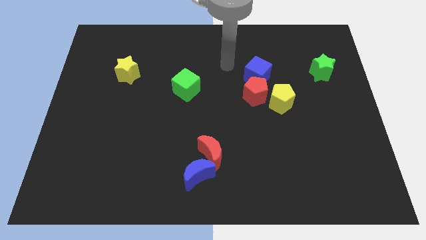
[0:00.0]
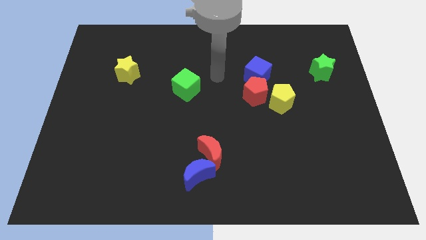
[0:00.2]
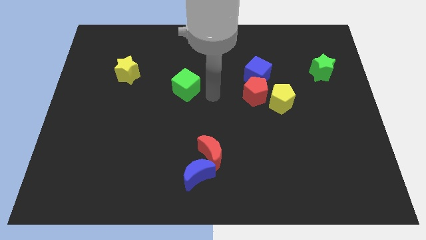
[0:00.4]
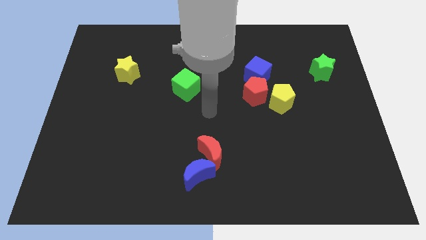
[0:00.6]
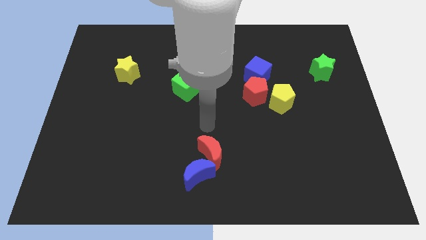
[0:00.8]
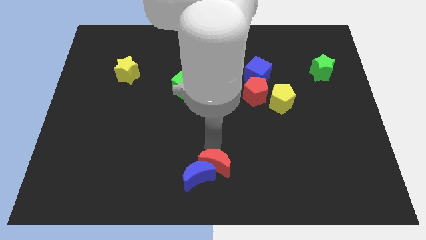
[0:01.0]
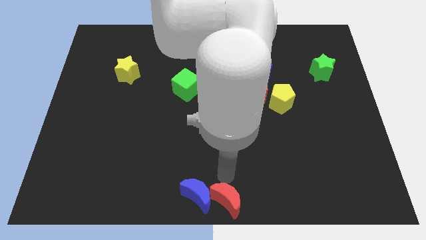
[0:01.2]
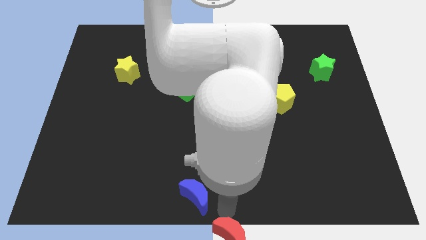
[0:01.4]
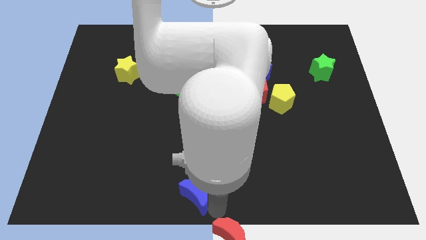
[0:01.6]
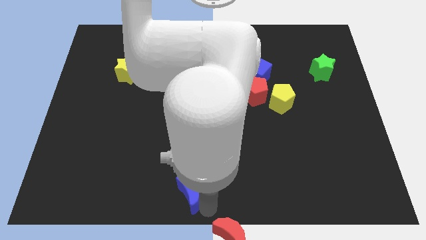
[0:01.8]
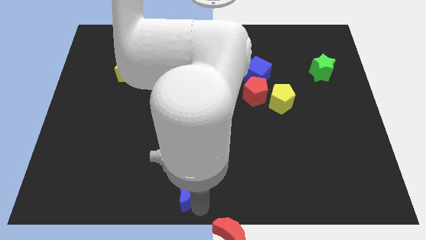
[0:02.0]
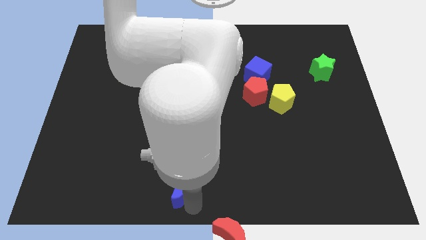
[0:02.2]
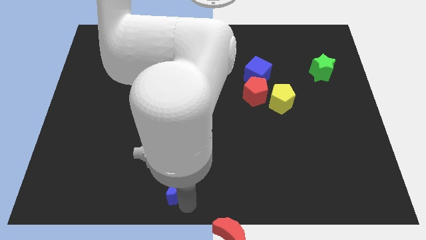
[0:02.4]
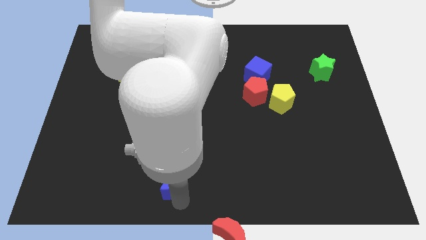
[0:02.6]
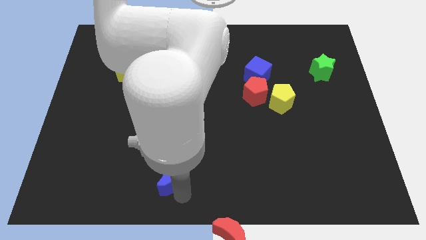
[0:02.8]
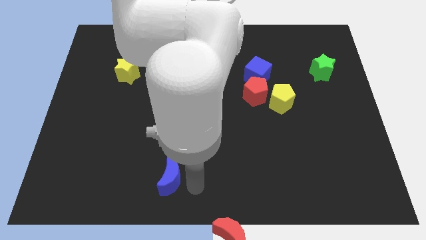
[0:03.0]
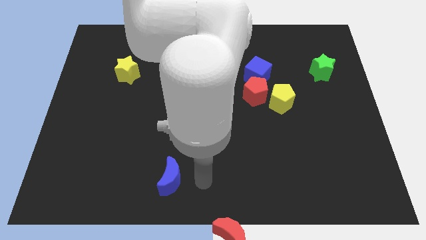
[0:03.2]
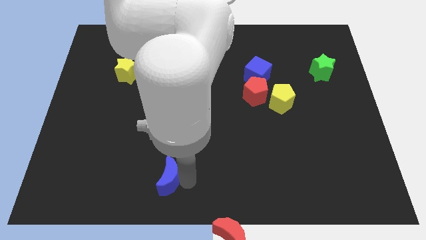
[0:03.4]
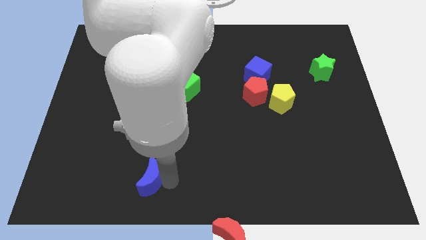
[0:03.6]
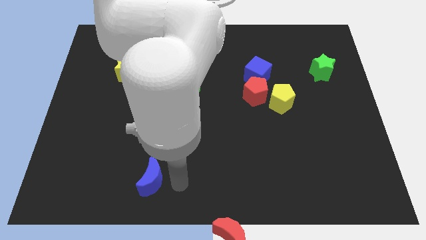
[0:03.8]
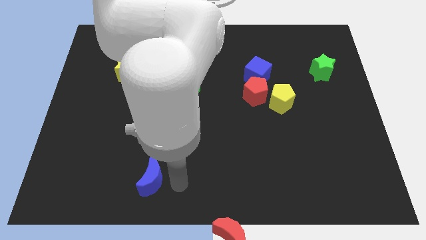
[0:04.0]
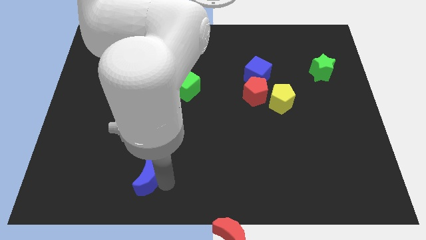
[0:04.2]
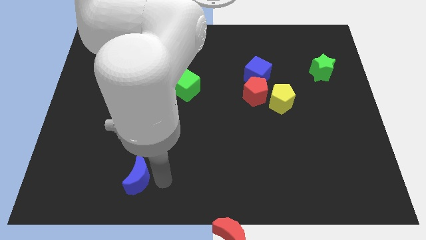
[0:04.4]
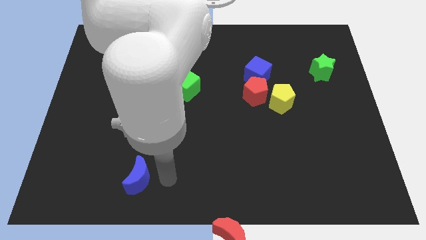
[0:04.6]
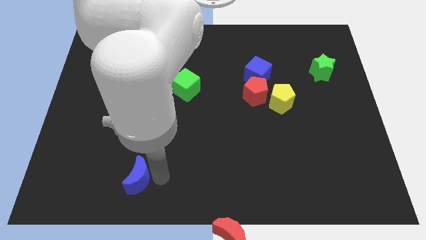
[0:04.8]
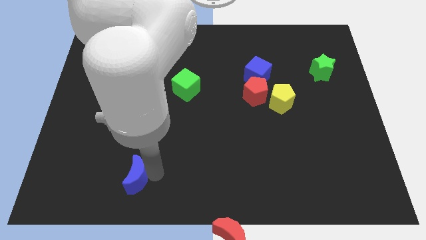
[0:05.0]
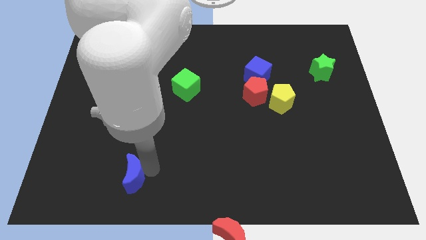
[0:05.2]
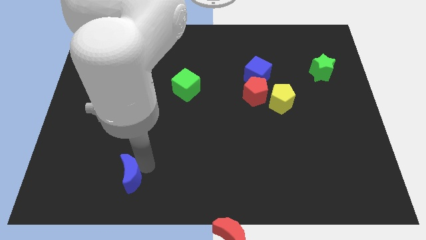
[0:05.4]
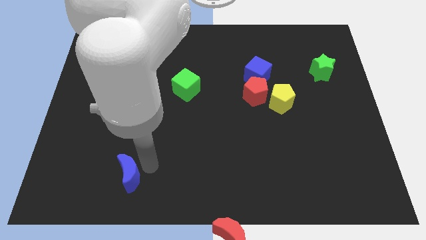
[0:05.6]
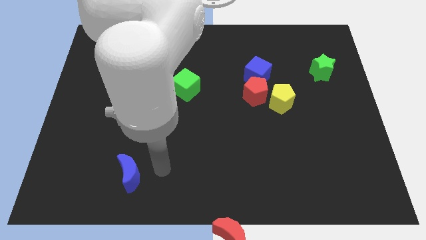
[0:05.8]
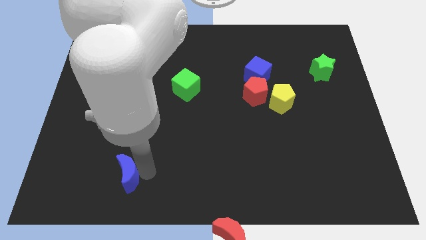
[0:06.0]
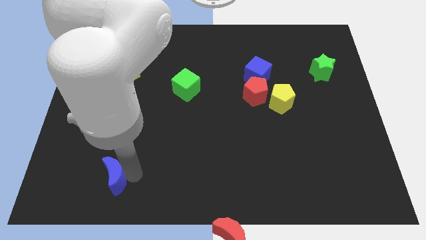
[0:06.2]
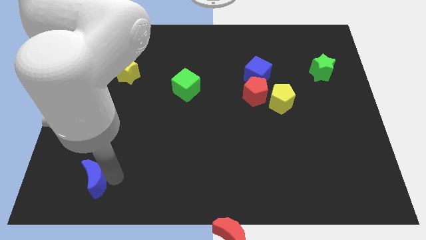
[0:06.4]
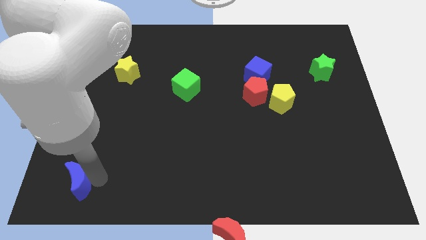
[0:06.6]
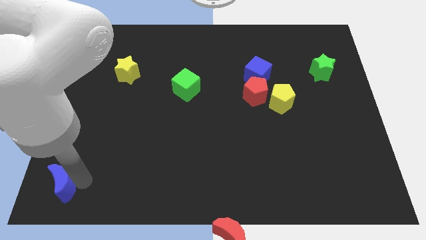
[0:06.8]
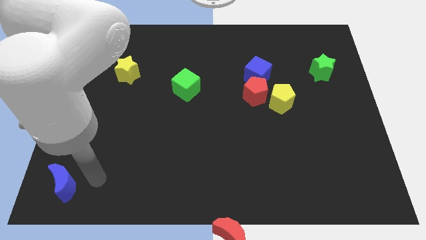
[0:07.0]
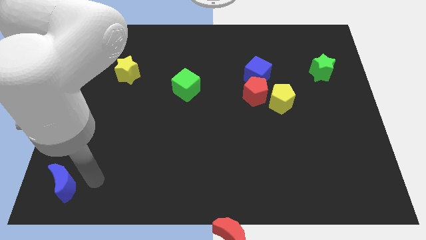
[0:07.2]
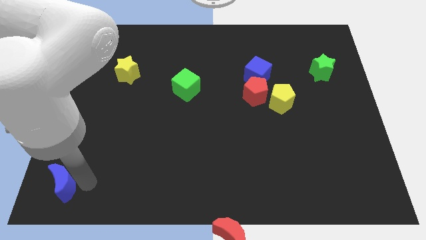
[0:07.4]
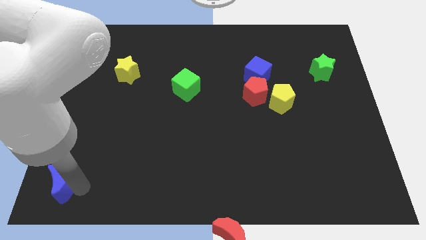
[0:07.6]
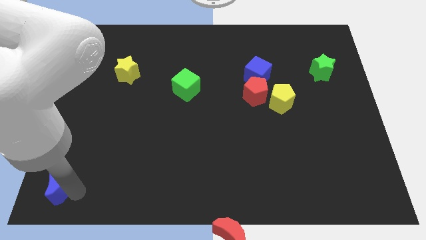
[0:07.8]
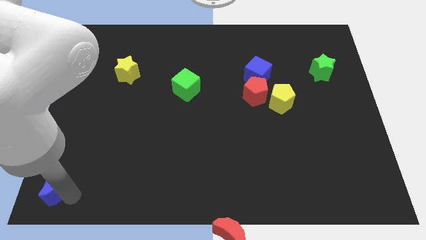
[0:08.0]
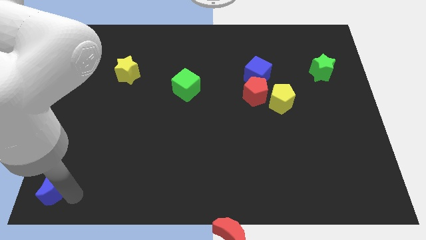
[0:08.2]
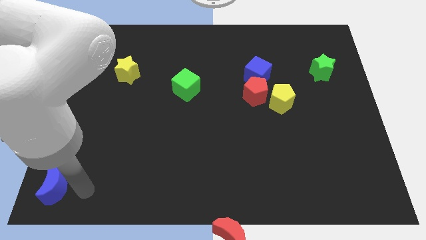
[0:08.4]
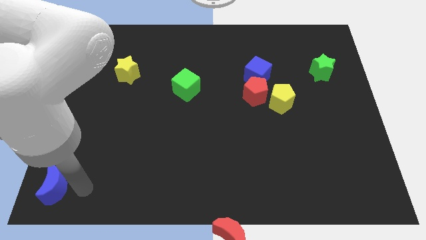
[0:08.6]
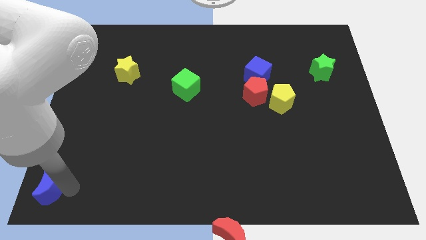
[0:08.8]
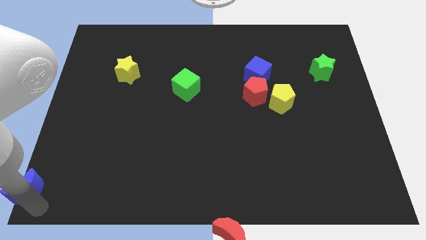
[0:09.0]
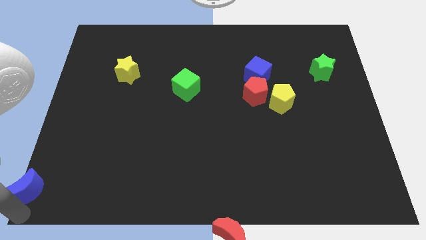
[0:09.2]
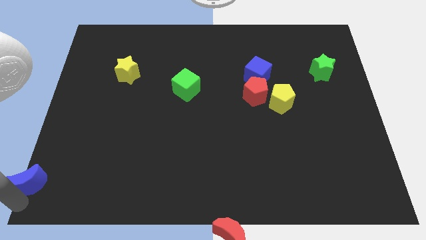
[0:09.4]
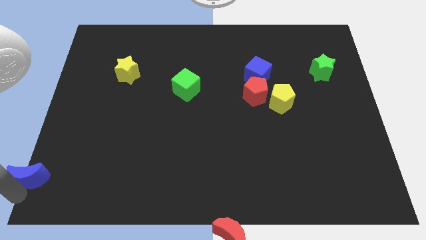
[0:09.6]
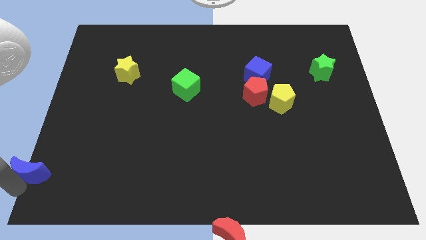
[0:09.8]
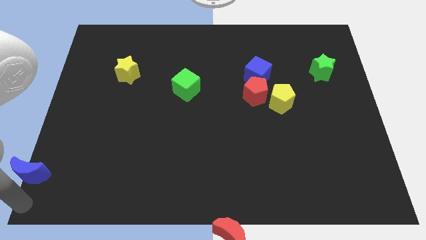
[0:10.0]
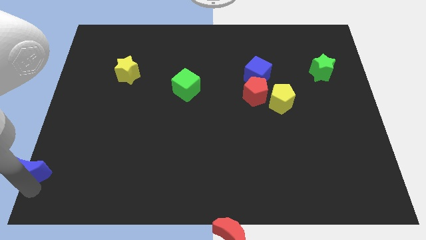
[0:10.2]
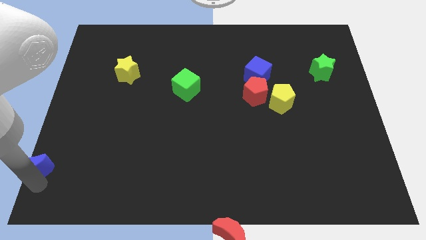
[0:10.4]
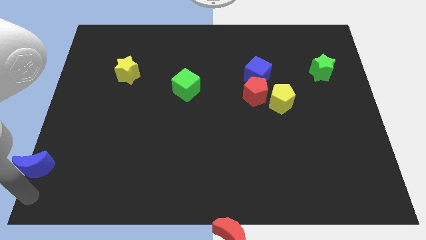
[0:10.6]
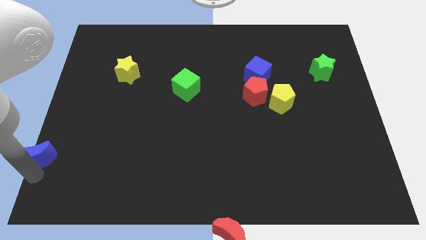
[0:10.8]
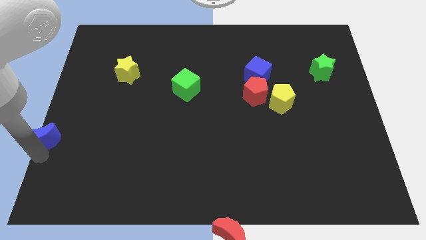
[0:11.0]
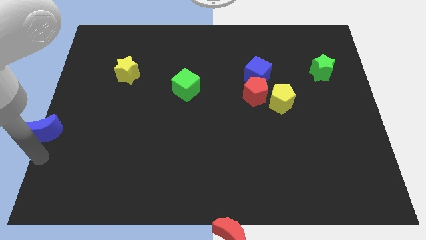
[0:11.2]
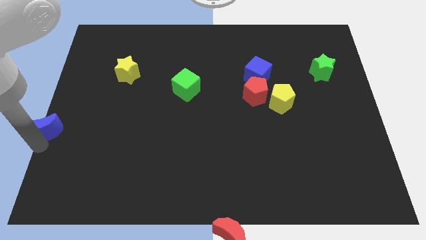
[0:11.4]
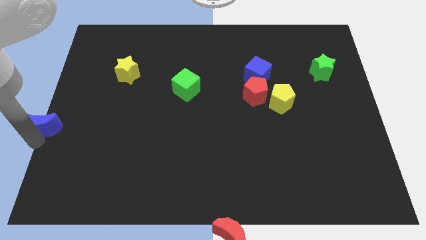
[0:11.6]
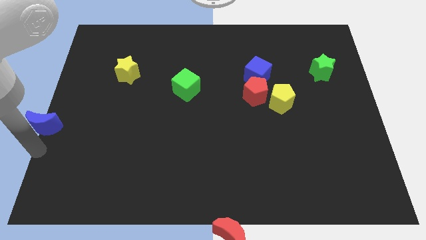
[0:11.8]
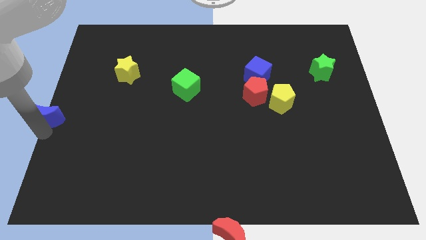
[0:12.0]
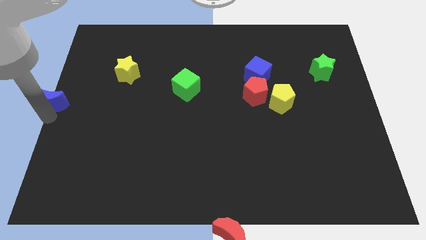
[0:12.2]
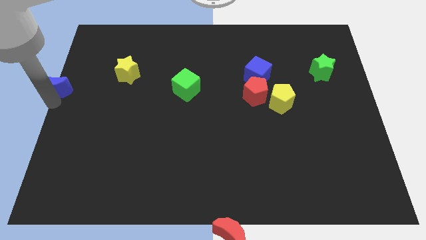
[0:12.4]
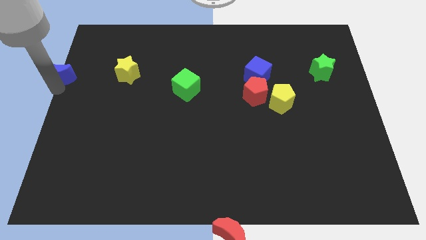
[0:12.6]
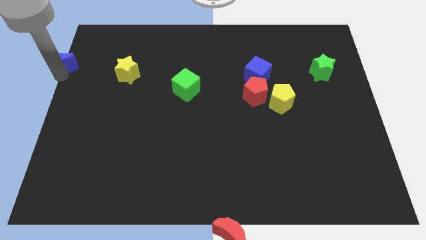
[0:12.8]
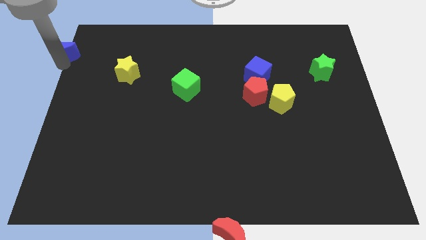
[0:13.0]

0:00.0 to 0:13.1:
move the blue moon to the top left of the board

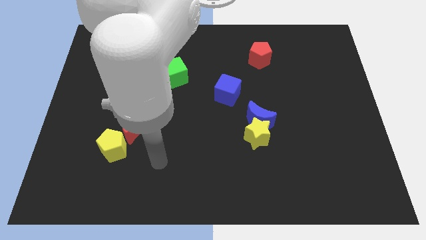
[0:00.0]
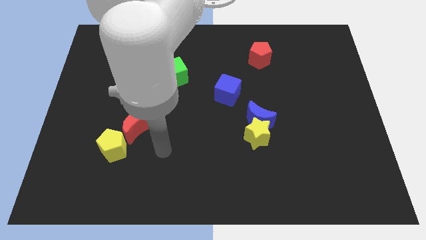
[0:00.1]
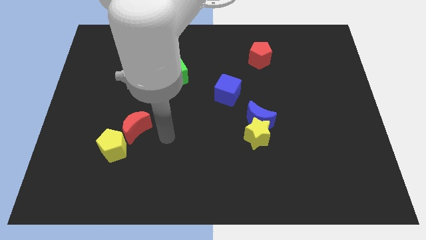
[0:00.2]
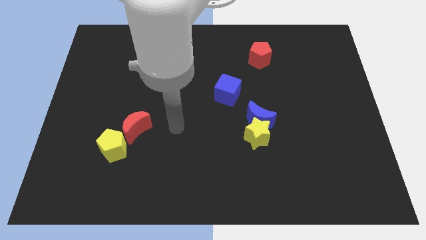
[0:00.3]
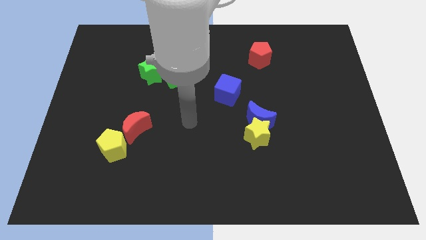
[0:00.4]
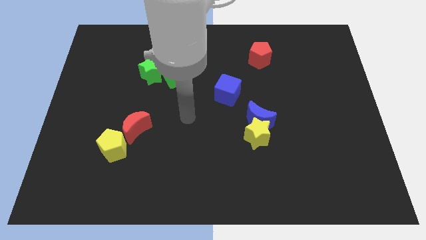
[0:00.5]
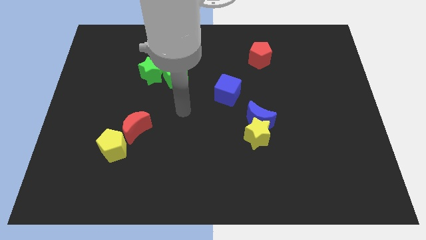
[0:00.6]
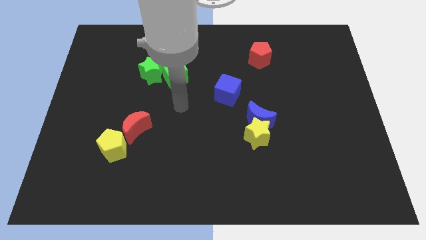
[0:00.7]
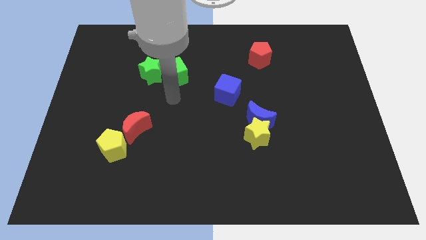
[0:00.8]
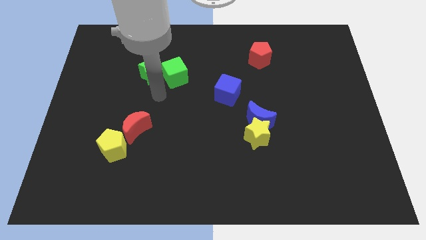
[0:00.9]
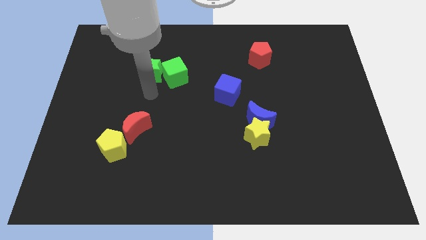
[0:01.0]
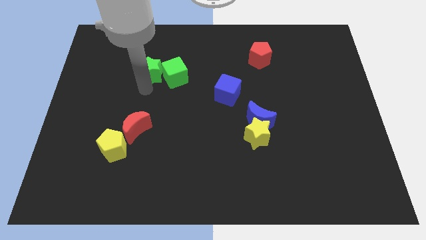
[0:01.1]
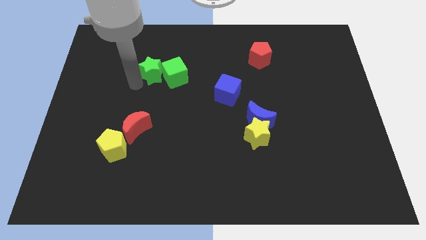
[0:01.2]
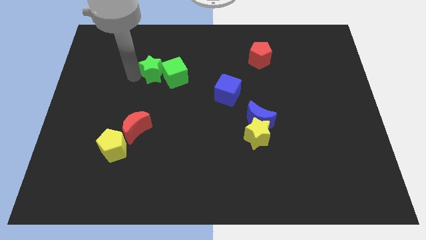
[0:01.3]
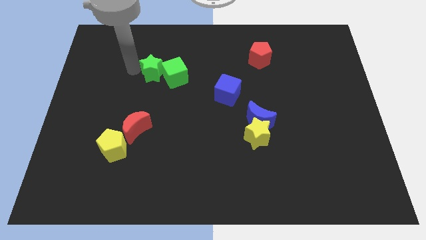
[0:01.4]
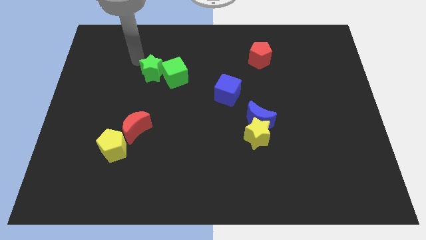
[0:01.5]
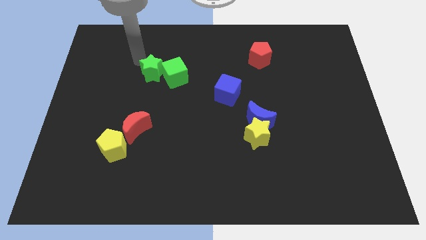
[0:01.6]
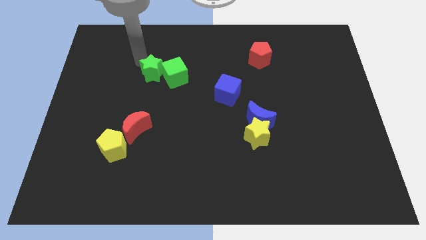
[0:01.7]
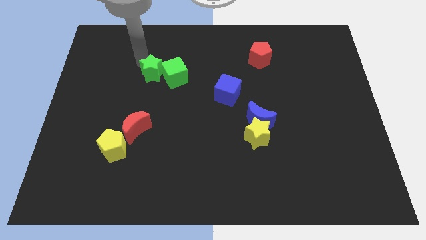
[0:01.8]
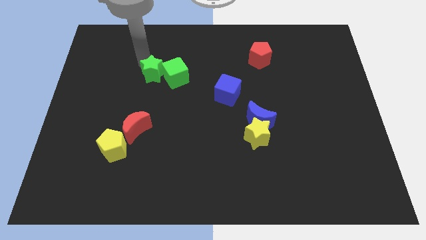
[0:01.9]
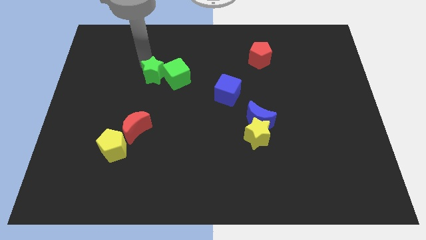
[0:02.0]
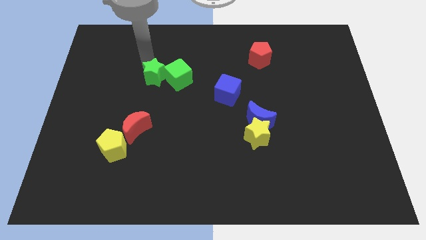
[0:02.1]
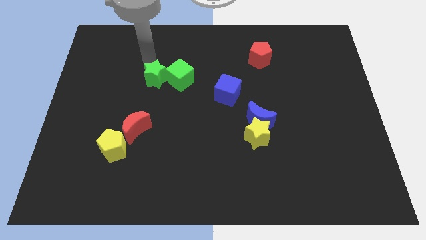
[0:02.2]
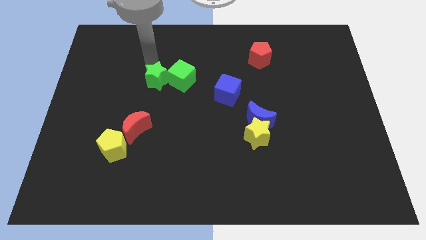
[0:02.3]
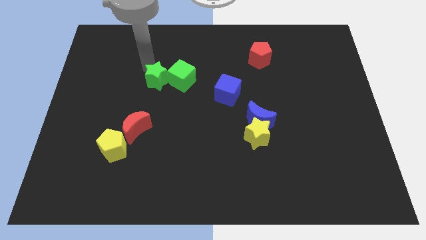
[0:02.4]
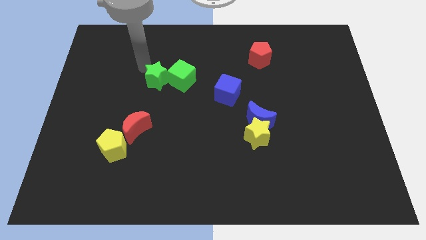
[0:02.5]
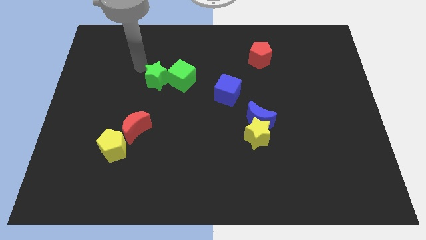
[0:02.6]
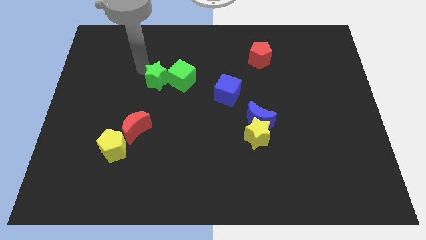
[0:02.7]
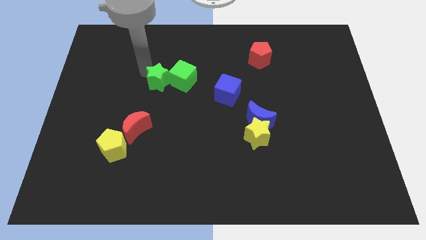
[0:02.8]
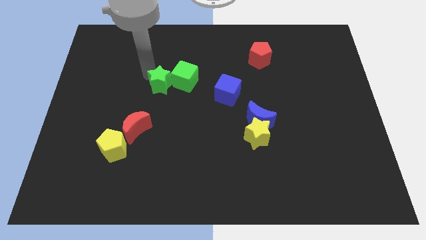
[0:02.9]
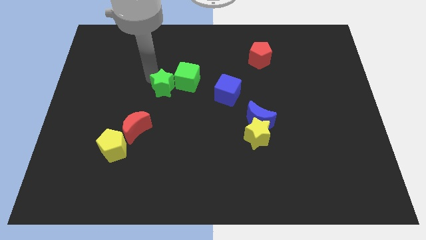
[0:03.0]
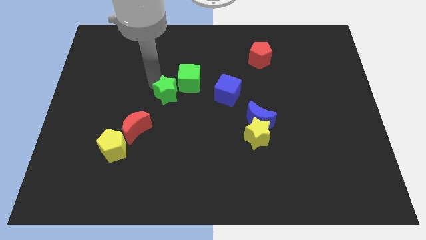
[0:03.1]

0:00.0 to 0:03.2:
slide the green star to the center
